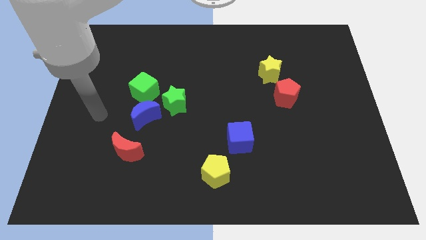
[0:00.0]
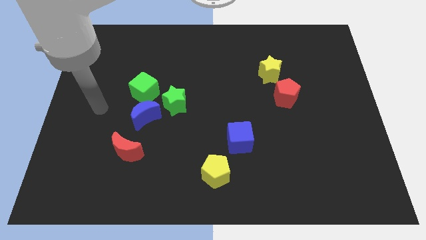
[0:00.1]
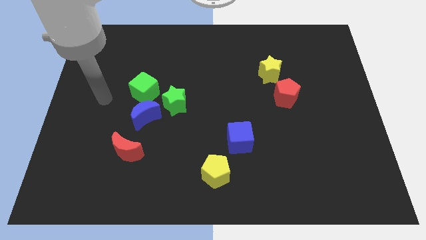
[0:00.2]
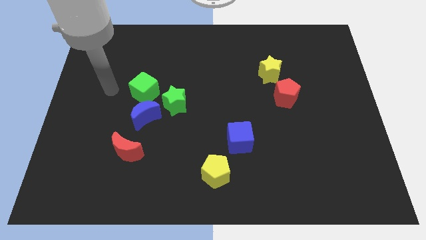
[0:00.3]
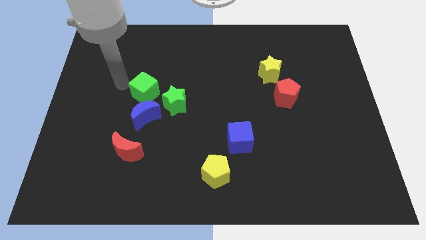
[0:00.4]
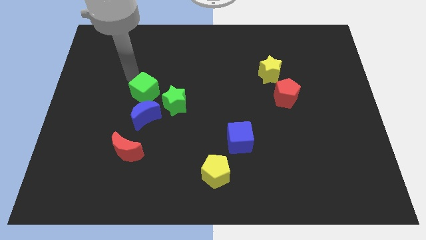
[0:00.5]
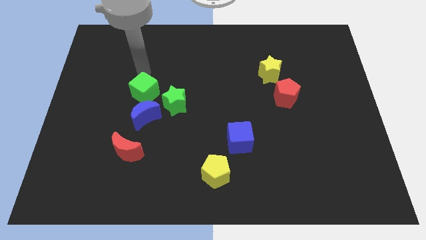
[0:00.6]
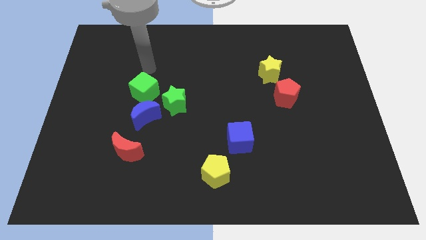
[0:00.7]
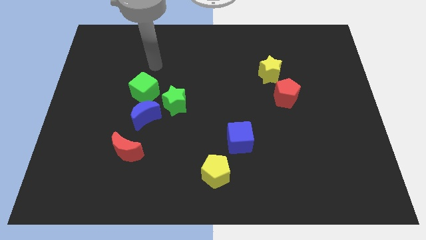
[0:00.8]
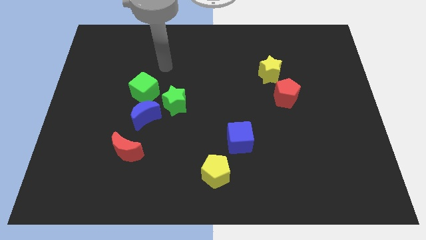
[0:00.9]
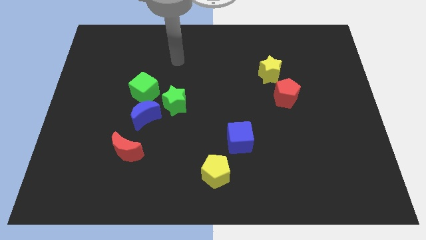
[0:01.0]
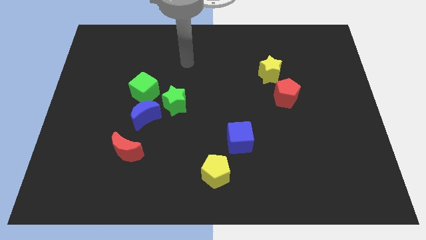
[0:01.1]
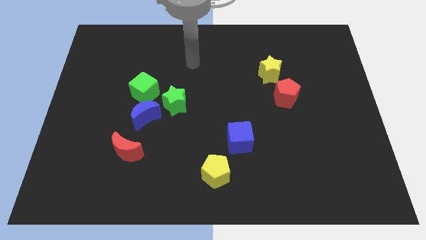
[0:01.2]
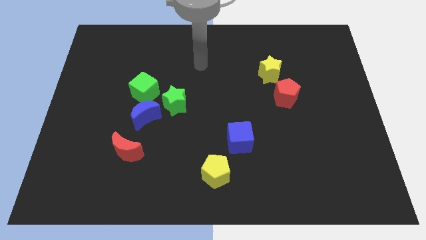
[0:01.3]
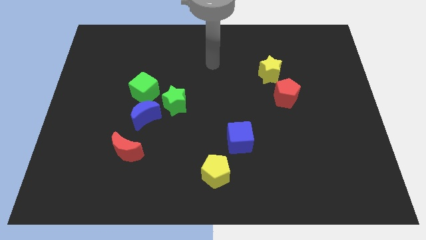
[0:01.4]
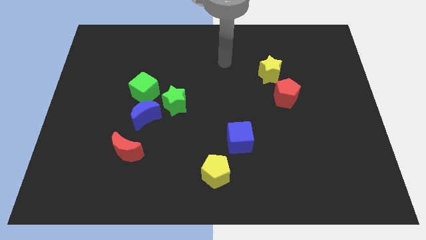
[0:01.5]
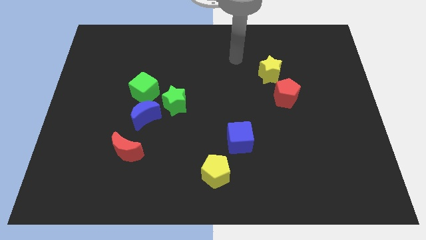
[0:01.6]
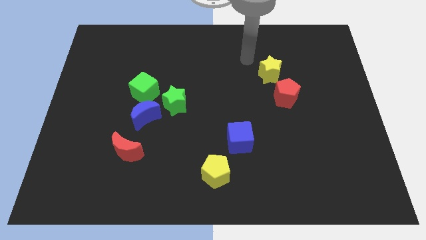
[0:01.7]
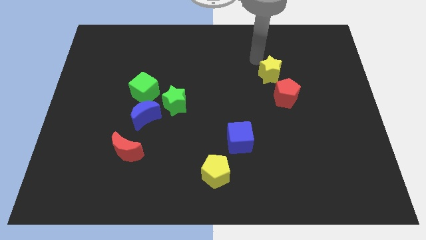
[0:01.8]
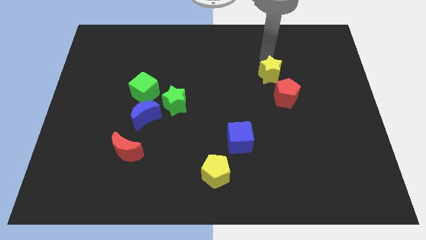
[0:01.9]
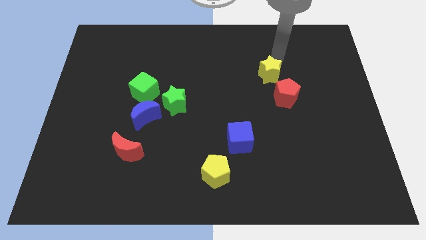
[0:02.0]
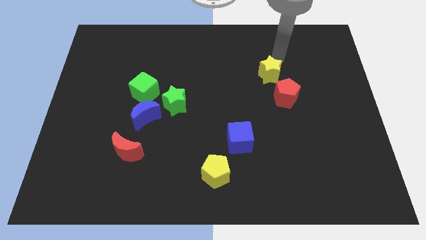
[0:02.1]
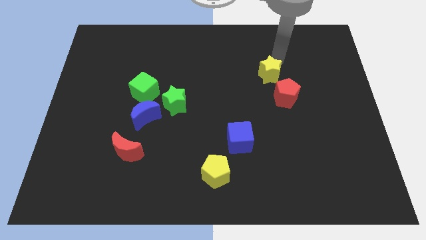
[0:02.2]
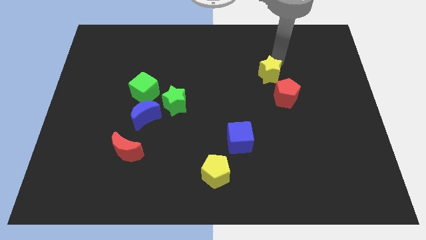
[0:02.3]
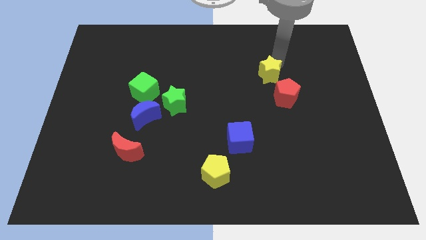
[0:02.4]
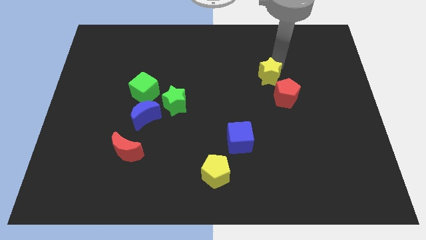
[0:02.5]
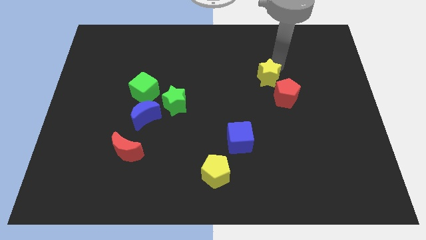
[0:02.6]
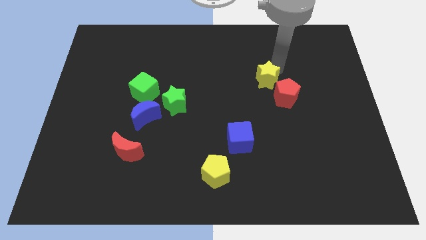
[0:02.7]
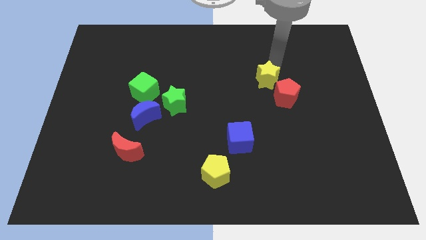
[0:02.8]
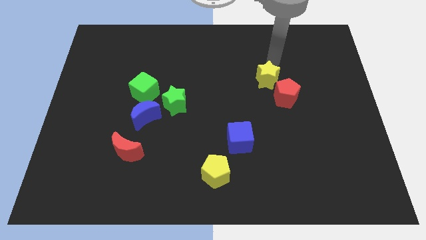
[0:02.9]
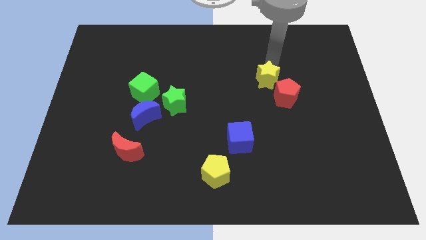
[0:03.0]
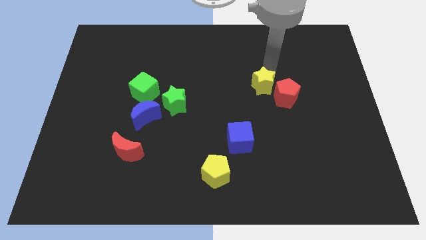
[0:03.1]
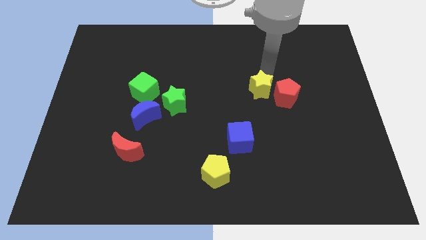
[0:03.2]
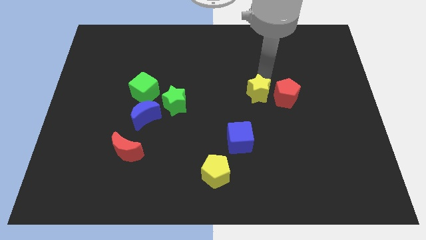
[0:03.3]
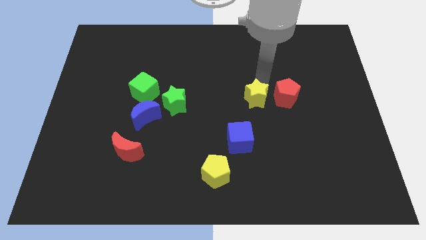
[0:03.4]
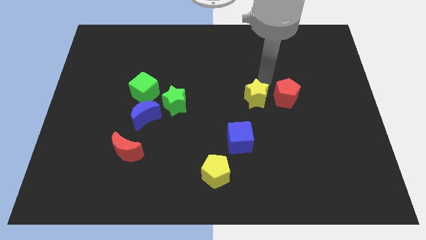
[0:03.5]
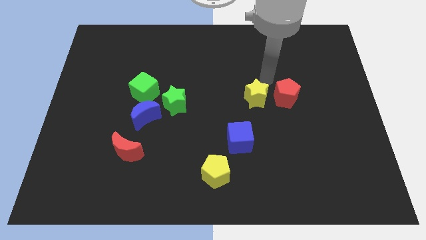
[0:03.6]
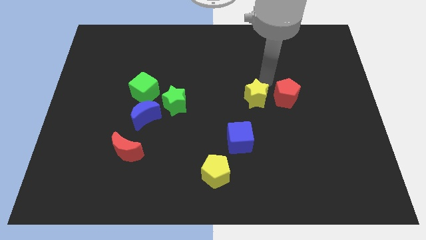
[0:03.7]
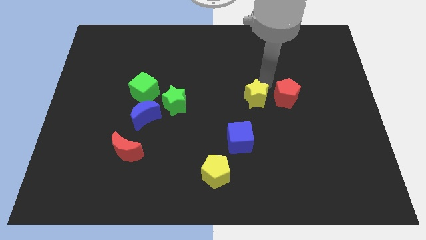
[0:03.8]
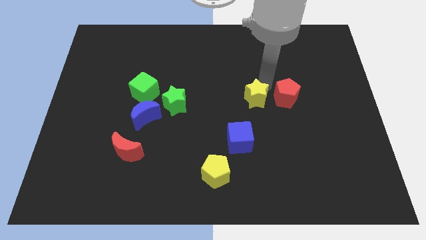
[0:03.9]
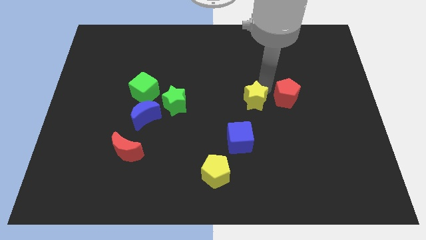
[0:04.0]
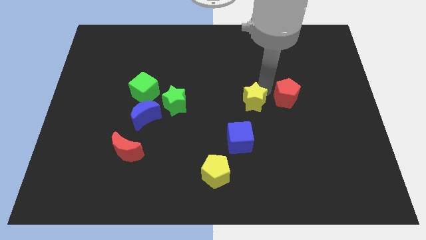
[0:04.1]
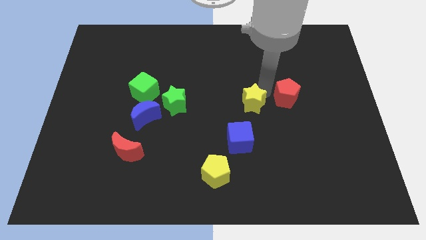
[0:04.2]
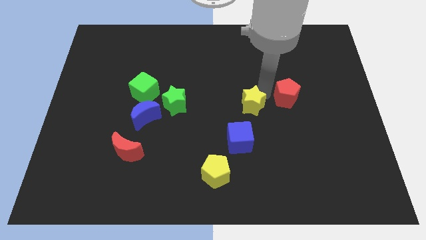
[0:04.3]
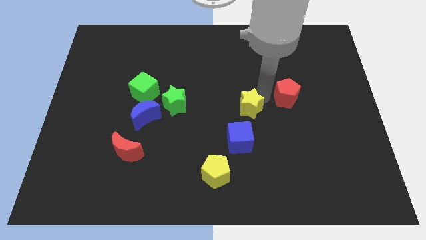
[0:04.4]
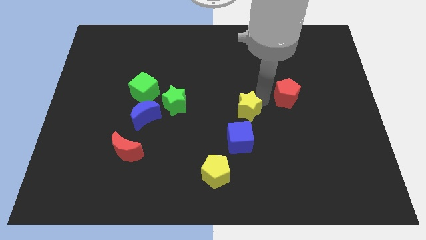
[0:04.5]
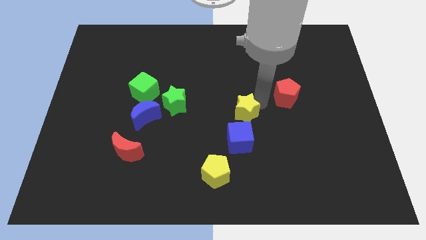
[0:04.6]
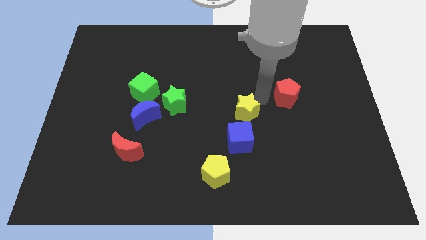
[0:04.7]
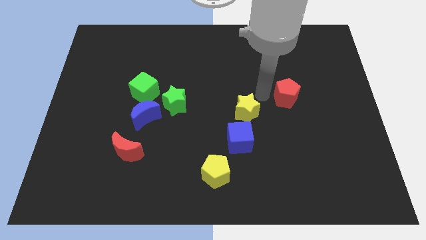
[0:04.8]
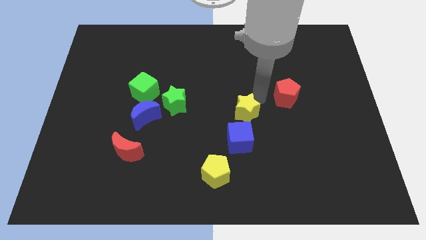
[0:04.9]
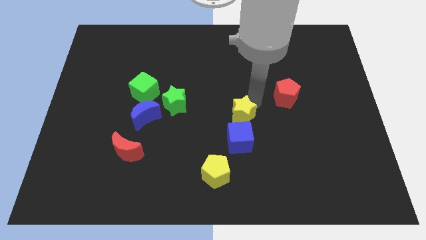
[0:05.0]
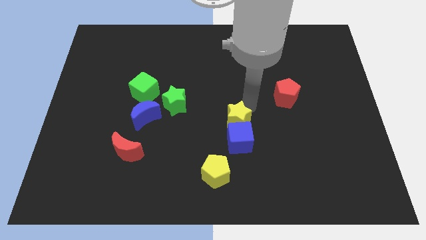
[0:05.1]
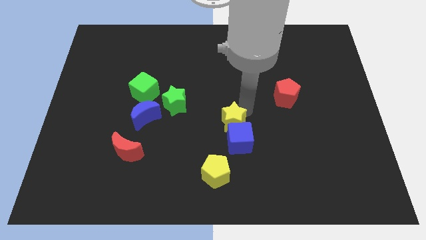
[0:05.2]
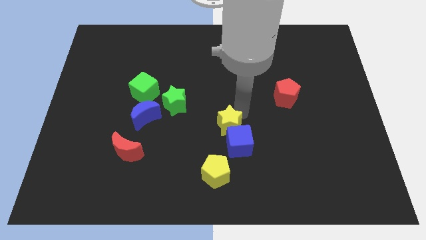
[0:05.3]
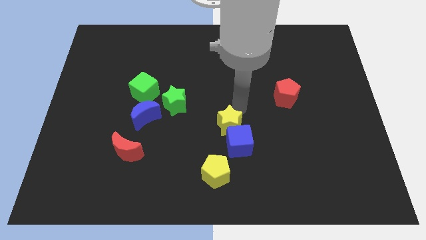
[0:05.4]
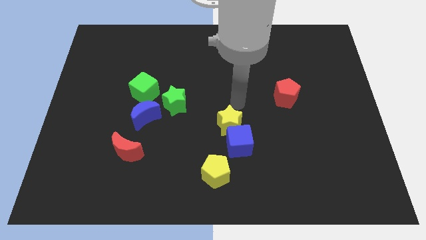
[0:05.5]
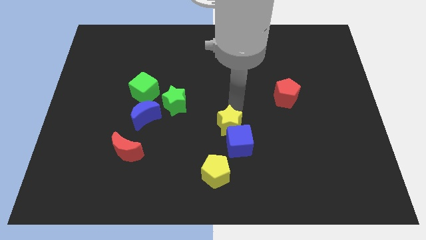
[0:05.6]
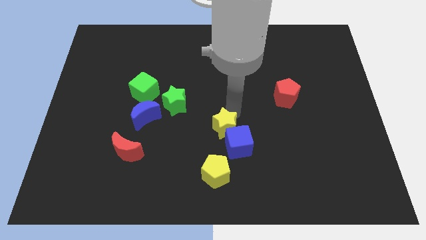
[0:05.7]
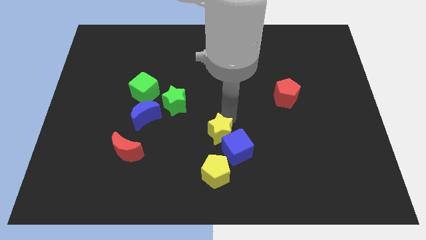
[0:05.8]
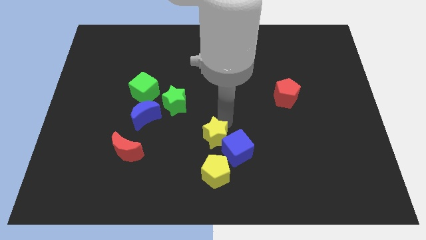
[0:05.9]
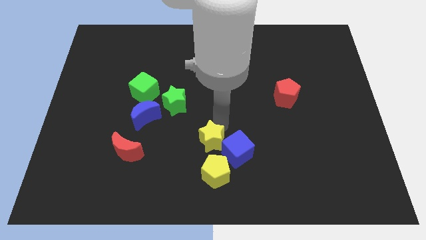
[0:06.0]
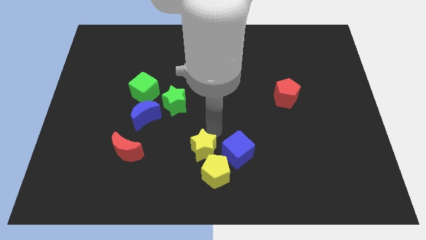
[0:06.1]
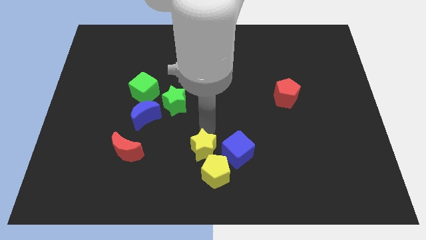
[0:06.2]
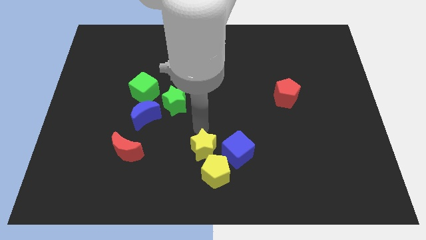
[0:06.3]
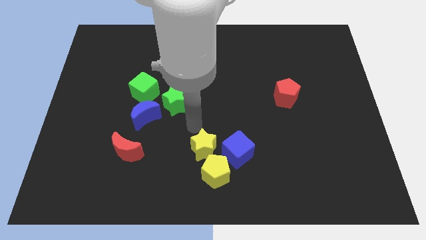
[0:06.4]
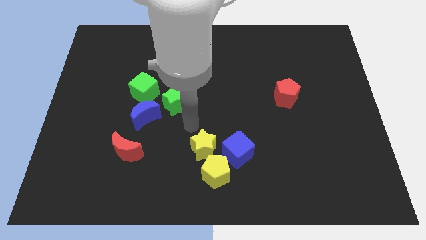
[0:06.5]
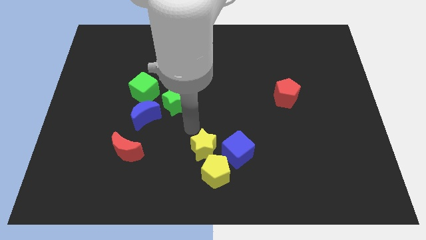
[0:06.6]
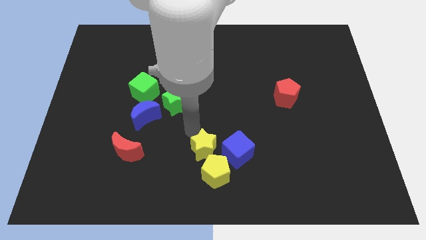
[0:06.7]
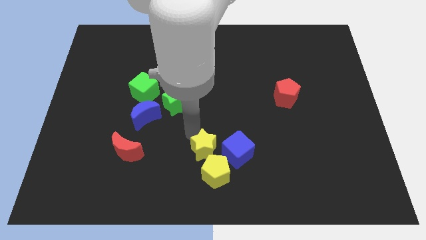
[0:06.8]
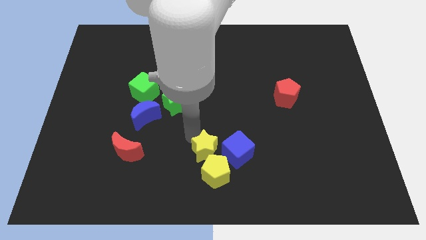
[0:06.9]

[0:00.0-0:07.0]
put the yellow star to the yellow pentagon
